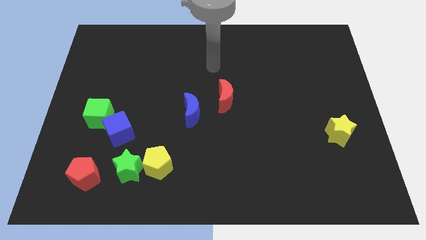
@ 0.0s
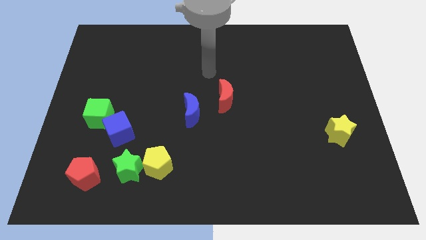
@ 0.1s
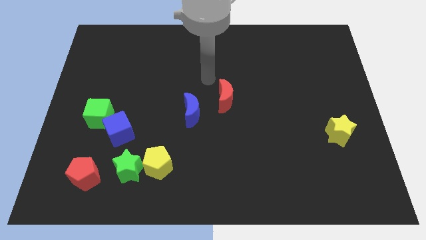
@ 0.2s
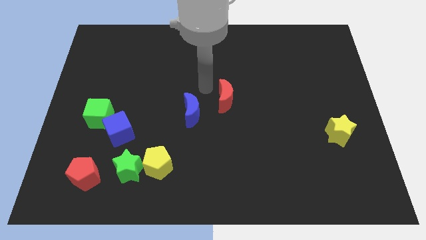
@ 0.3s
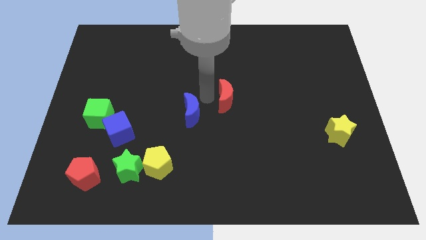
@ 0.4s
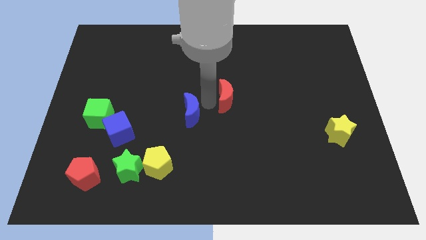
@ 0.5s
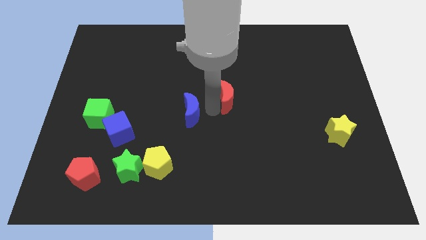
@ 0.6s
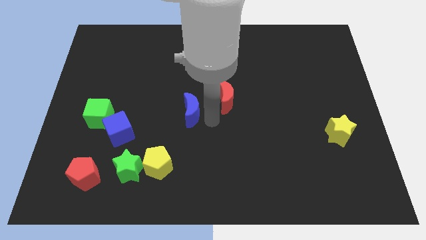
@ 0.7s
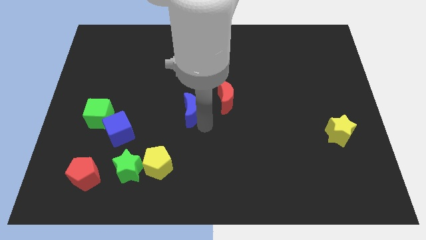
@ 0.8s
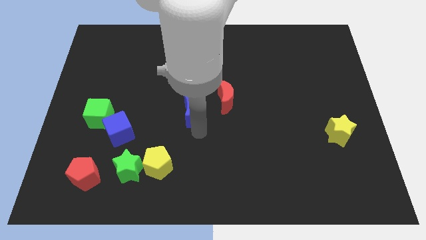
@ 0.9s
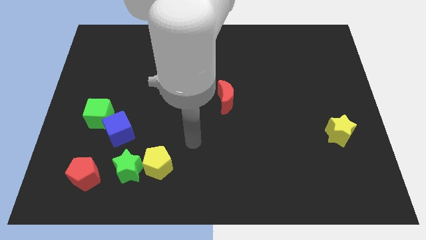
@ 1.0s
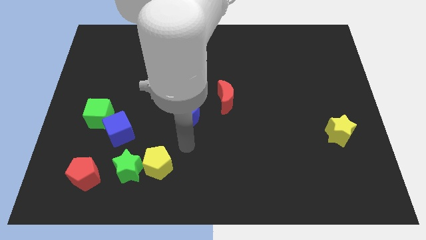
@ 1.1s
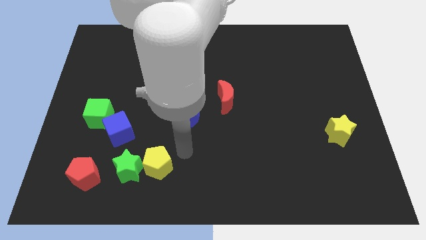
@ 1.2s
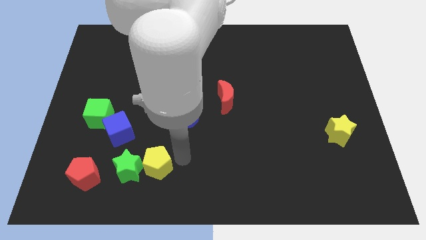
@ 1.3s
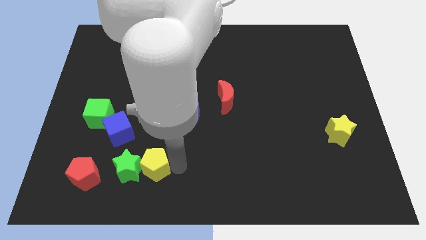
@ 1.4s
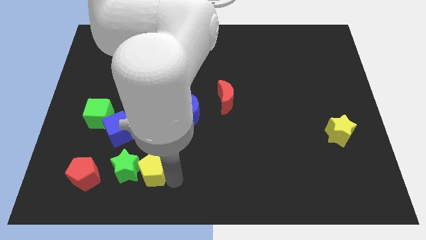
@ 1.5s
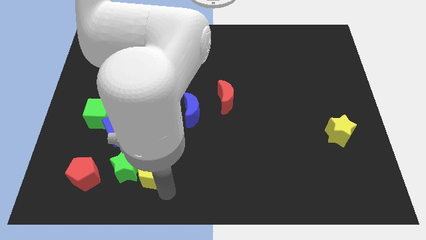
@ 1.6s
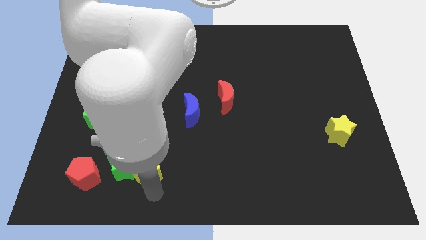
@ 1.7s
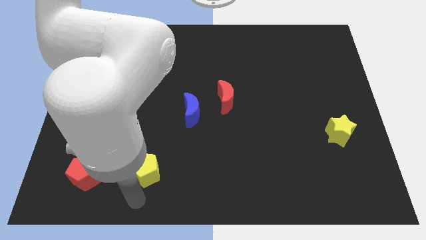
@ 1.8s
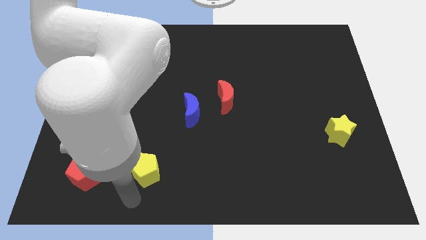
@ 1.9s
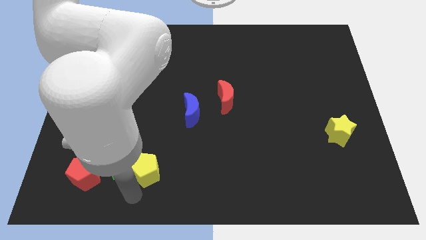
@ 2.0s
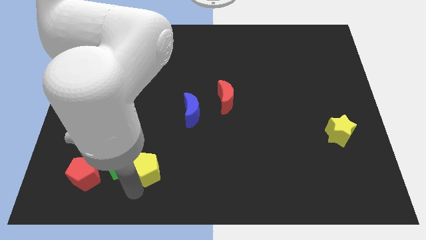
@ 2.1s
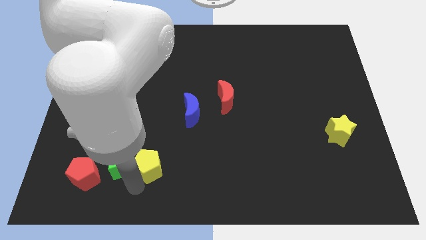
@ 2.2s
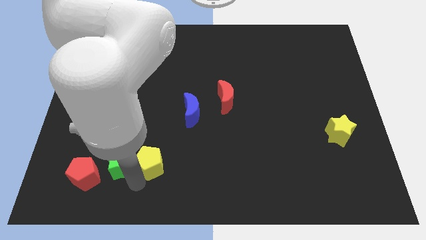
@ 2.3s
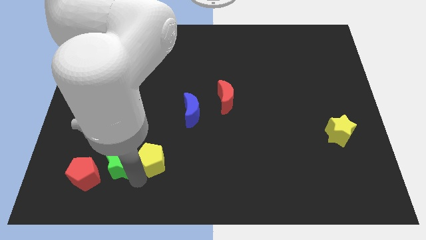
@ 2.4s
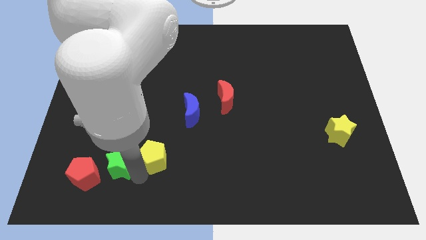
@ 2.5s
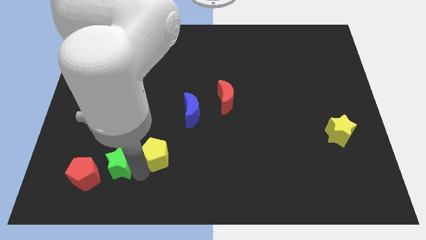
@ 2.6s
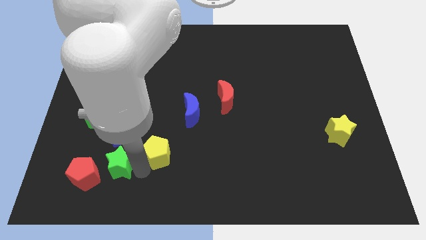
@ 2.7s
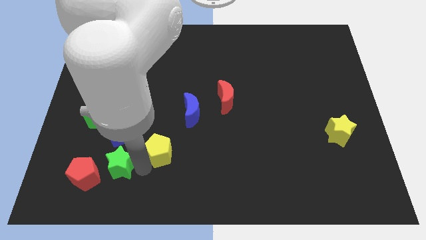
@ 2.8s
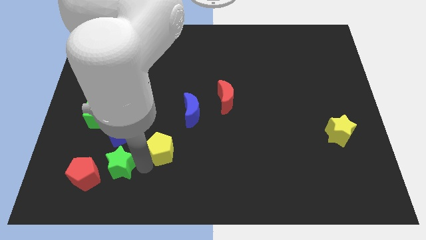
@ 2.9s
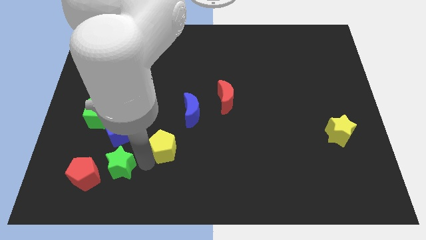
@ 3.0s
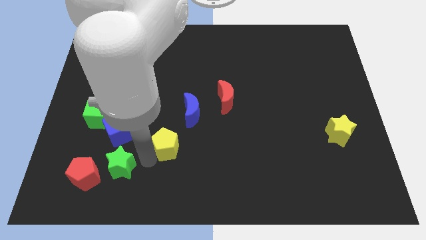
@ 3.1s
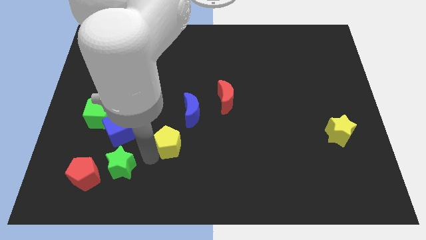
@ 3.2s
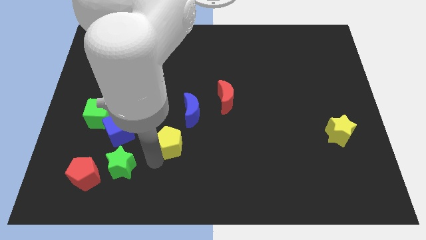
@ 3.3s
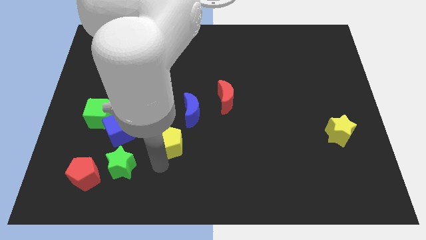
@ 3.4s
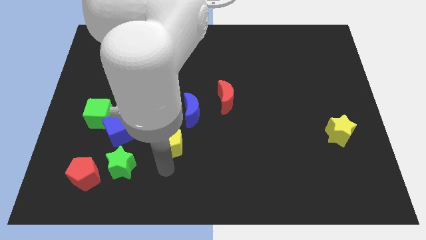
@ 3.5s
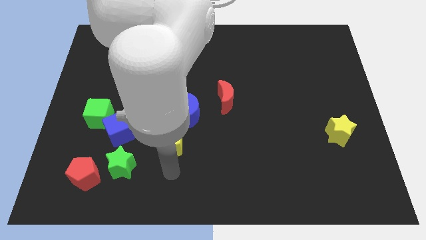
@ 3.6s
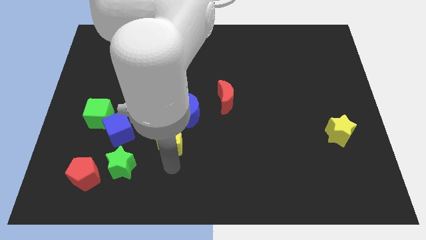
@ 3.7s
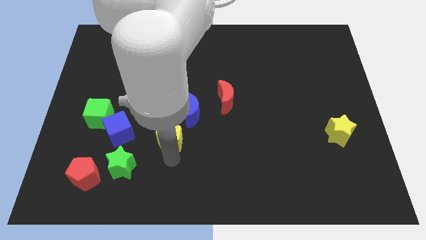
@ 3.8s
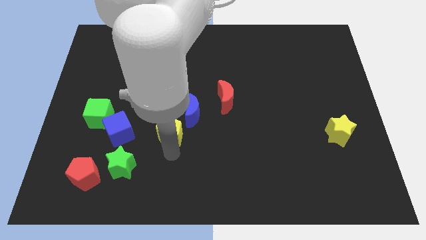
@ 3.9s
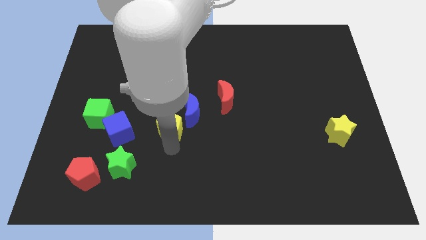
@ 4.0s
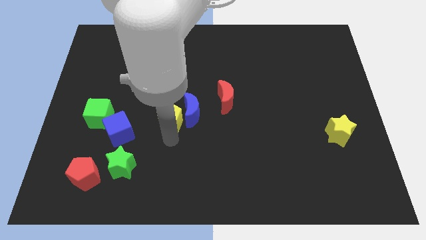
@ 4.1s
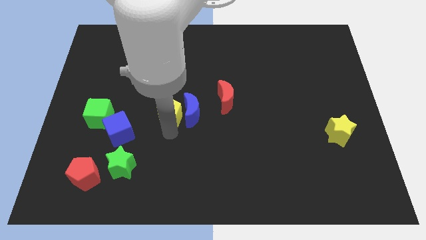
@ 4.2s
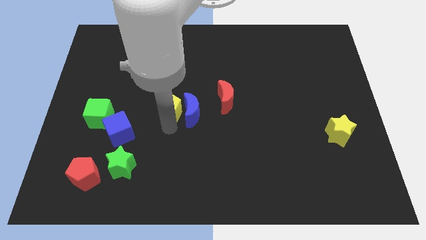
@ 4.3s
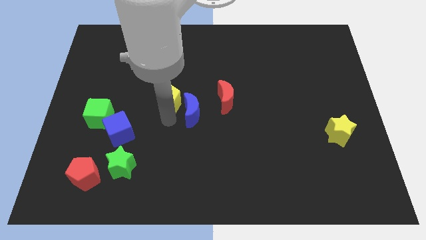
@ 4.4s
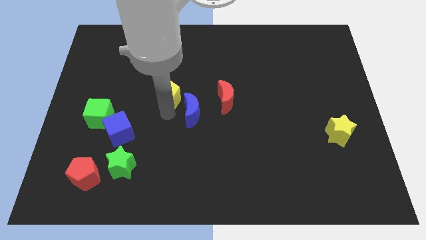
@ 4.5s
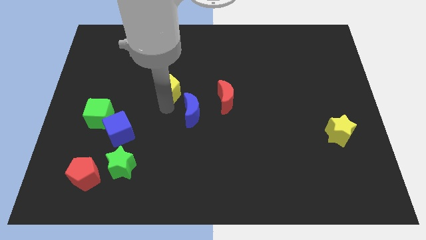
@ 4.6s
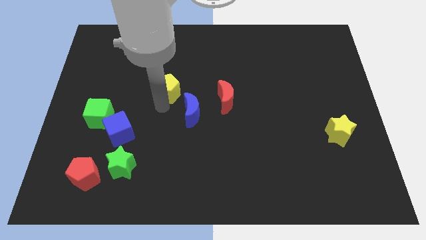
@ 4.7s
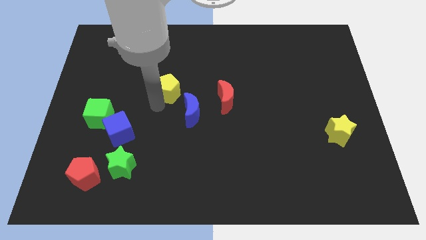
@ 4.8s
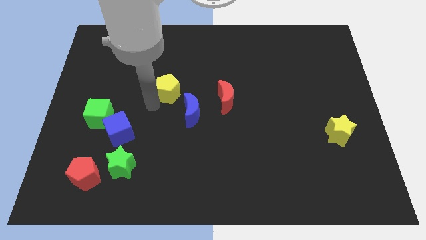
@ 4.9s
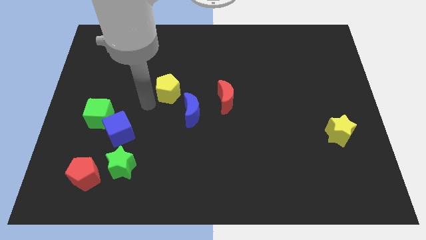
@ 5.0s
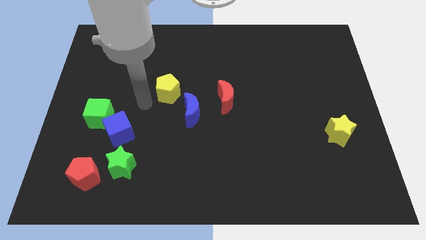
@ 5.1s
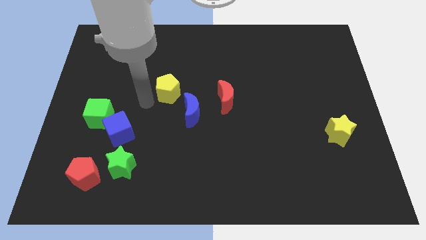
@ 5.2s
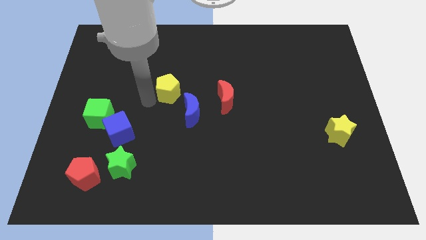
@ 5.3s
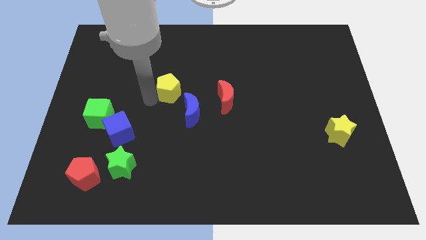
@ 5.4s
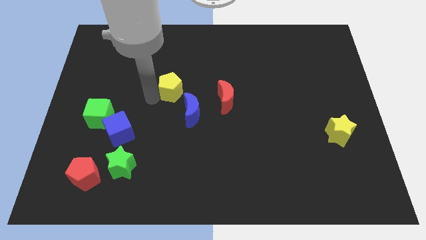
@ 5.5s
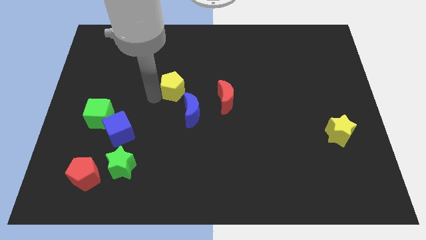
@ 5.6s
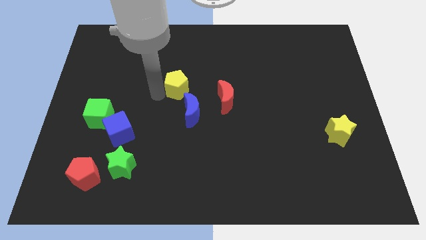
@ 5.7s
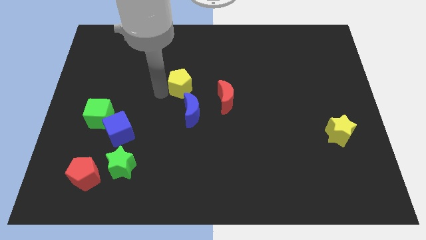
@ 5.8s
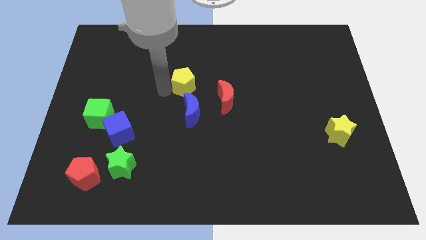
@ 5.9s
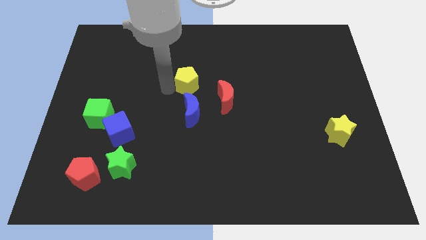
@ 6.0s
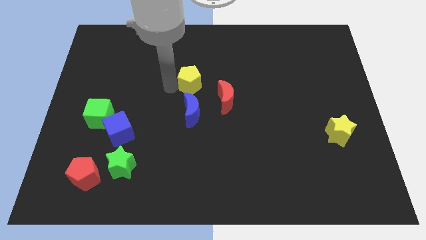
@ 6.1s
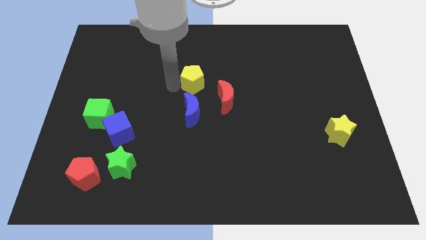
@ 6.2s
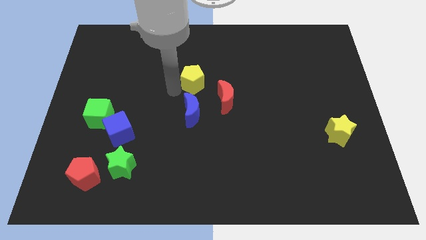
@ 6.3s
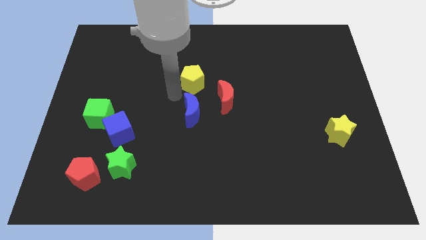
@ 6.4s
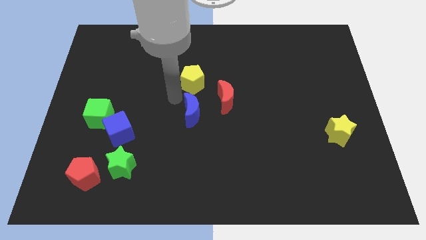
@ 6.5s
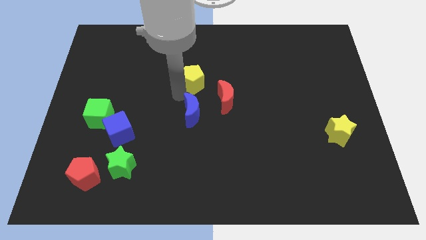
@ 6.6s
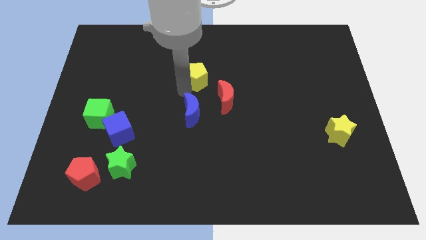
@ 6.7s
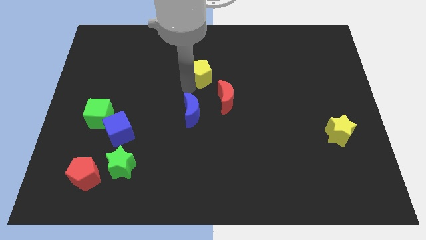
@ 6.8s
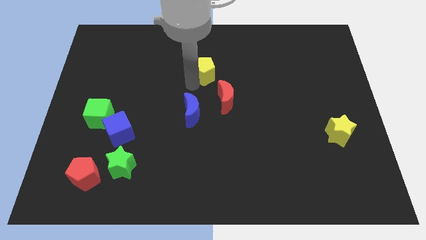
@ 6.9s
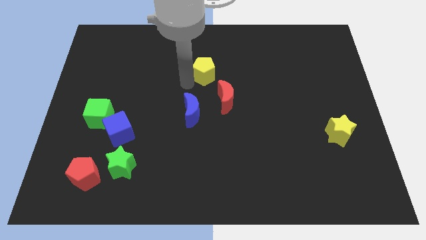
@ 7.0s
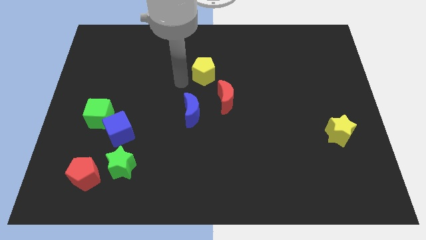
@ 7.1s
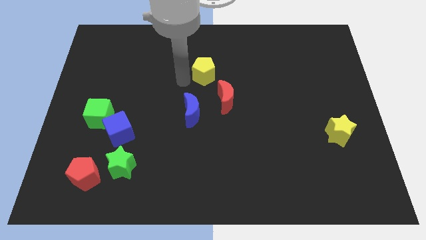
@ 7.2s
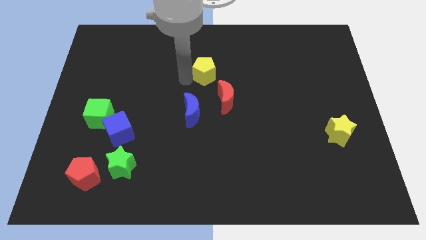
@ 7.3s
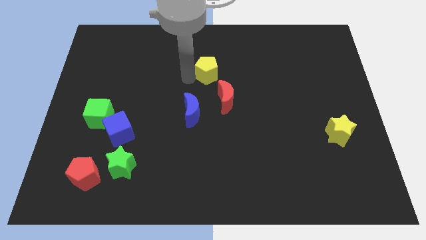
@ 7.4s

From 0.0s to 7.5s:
put the yellow pentagon to the top of the red moon
